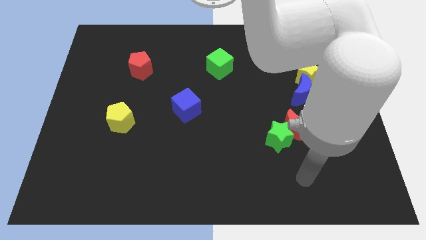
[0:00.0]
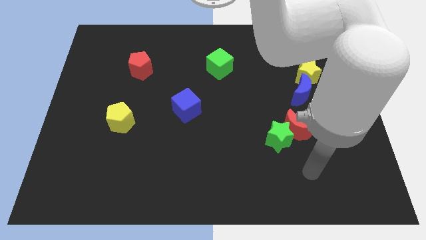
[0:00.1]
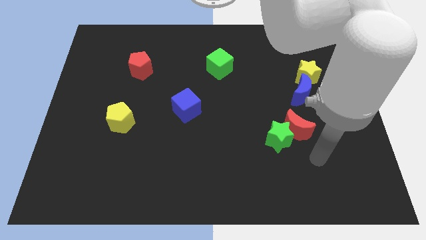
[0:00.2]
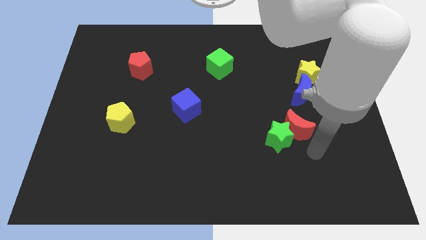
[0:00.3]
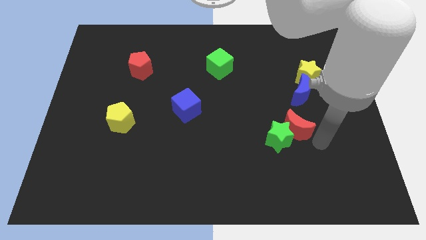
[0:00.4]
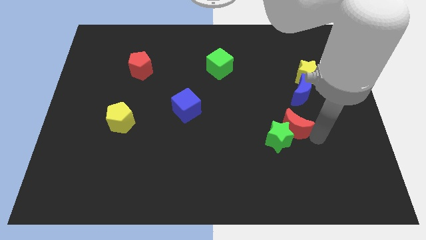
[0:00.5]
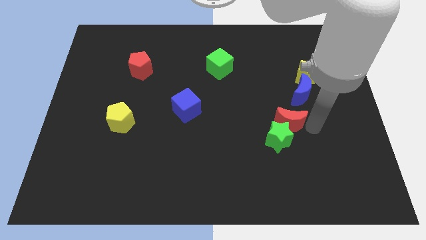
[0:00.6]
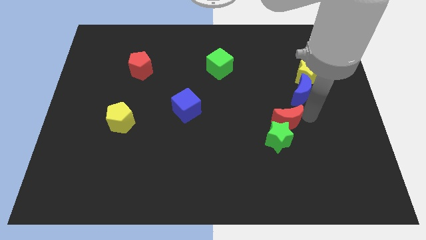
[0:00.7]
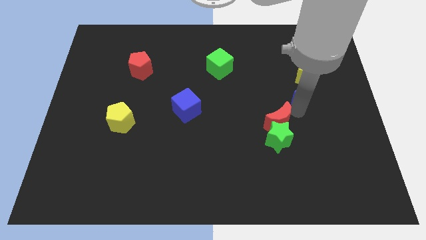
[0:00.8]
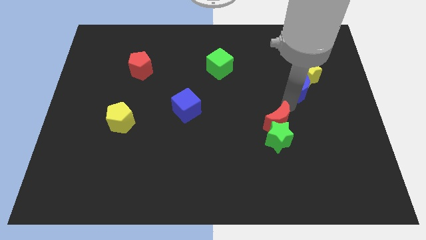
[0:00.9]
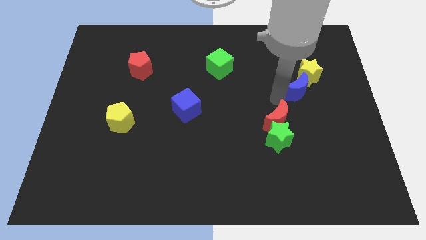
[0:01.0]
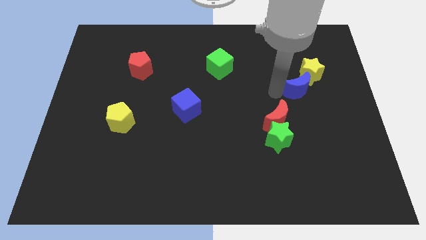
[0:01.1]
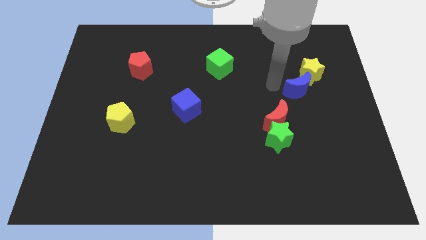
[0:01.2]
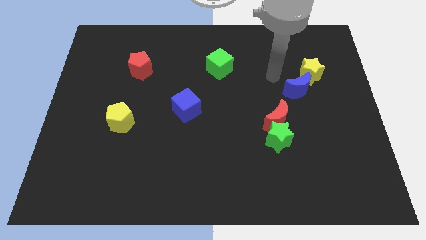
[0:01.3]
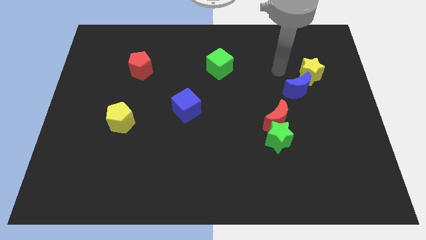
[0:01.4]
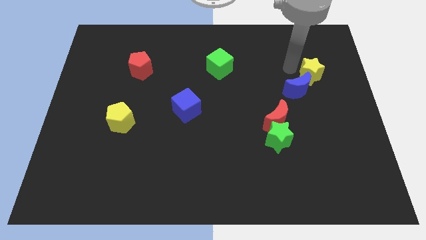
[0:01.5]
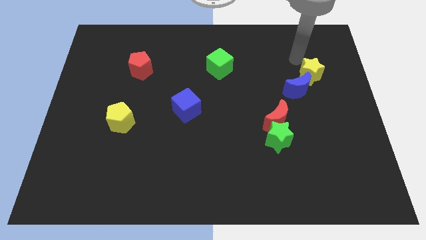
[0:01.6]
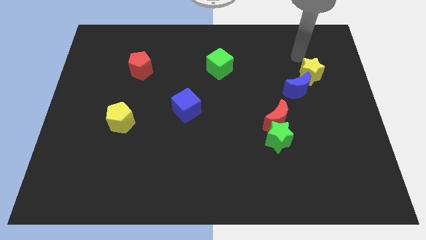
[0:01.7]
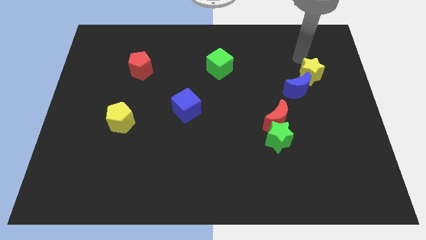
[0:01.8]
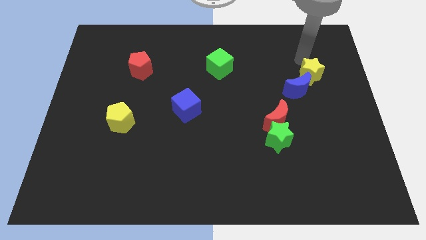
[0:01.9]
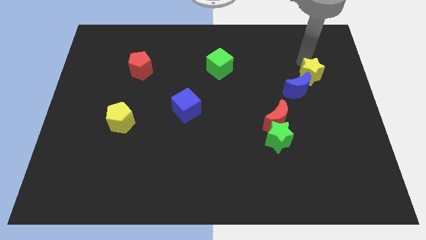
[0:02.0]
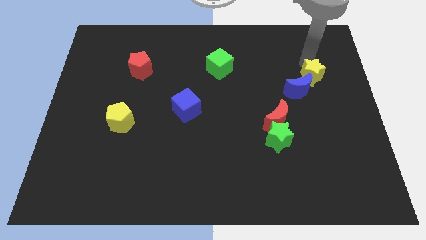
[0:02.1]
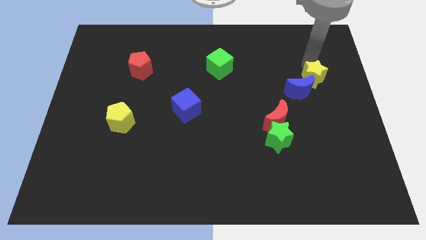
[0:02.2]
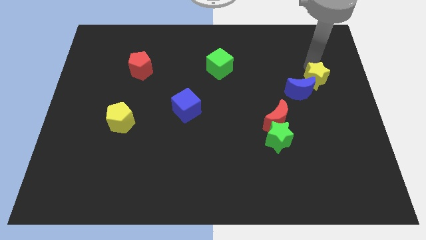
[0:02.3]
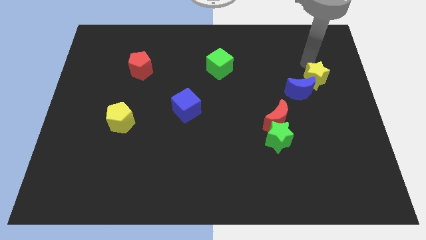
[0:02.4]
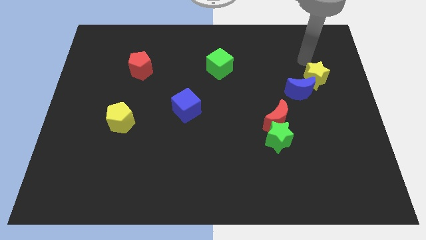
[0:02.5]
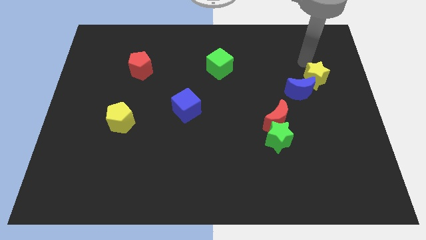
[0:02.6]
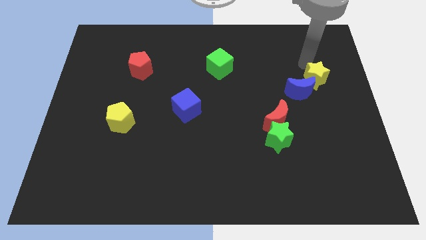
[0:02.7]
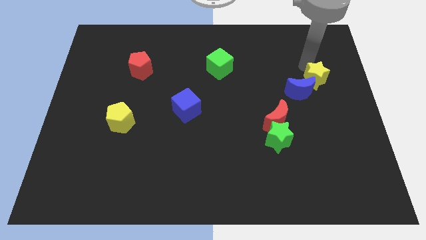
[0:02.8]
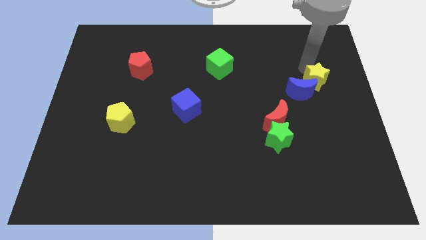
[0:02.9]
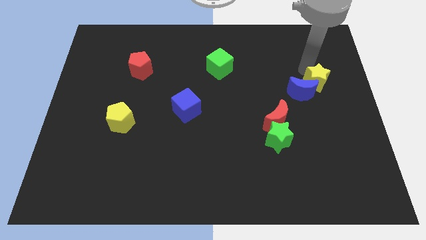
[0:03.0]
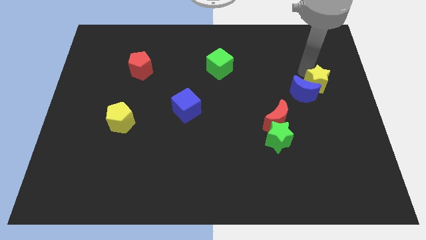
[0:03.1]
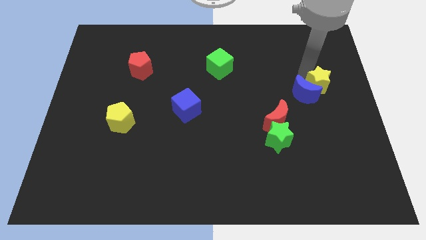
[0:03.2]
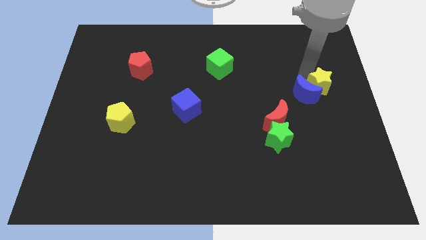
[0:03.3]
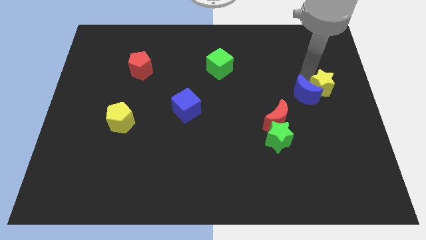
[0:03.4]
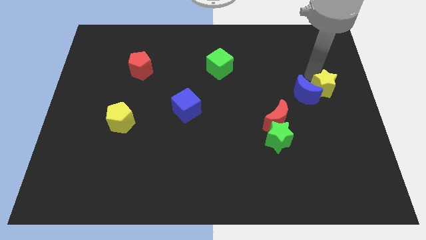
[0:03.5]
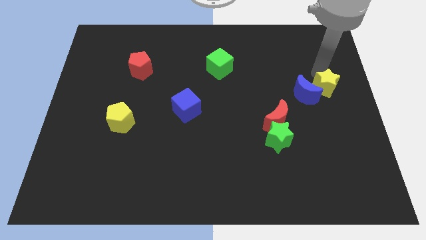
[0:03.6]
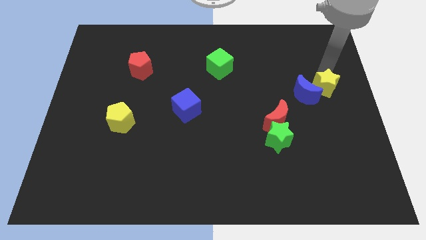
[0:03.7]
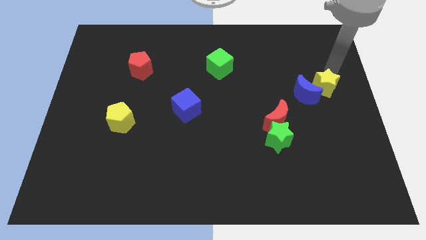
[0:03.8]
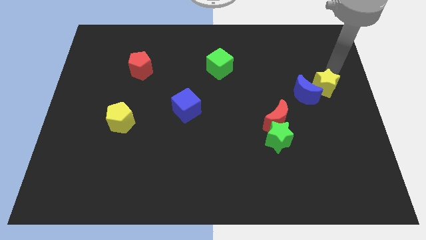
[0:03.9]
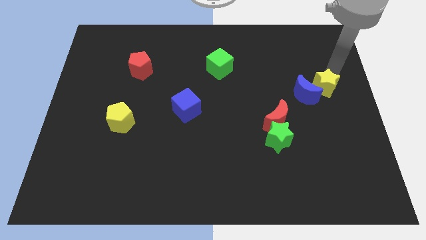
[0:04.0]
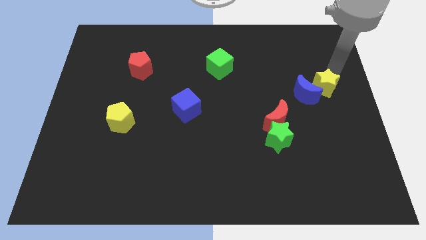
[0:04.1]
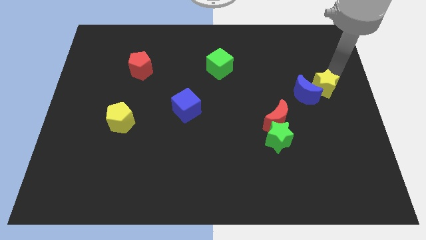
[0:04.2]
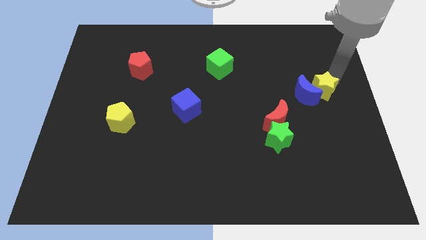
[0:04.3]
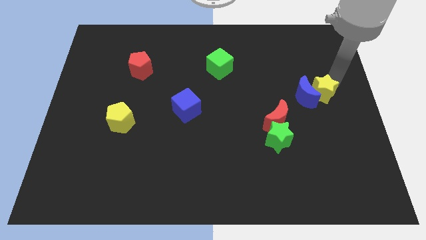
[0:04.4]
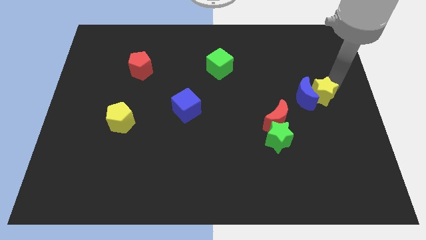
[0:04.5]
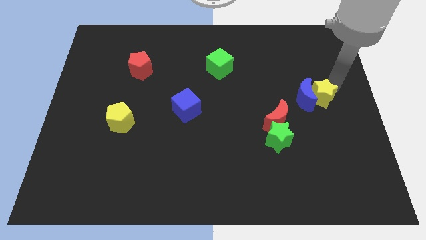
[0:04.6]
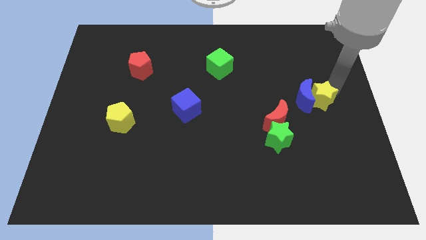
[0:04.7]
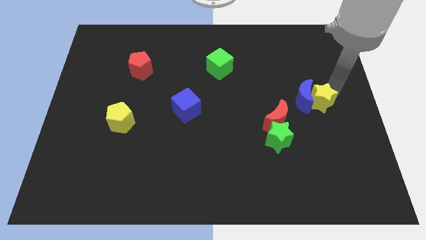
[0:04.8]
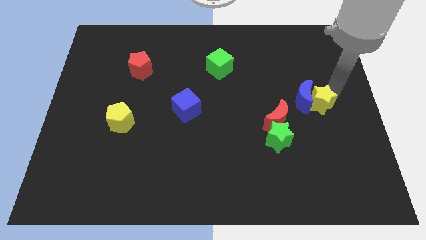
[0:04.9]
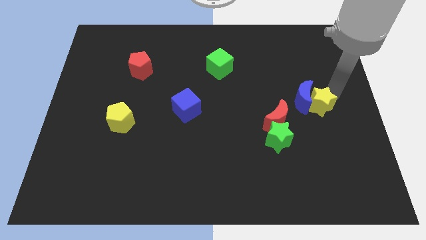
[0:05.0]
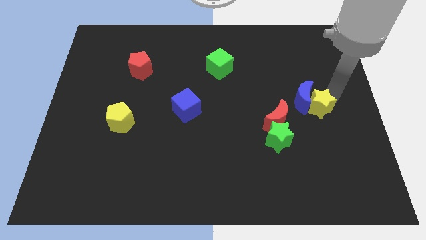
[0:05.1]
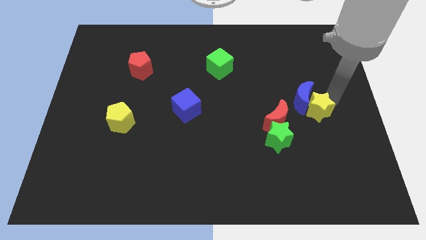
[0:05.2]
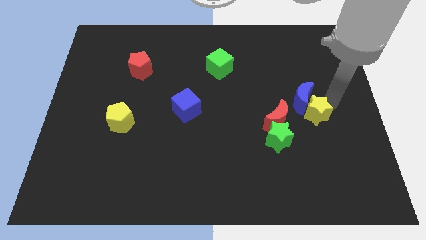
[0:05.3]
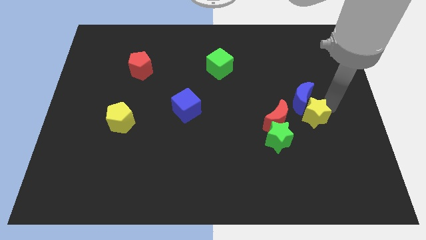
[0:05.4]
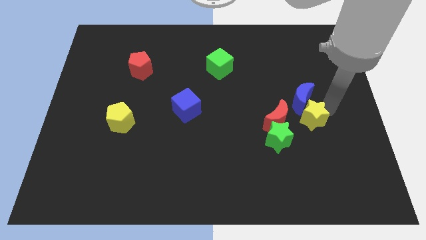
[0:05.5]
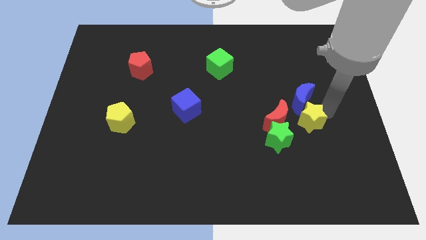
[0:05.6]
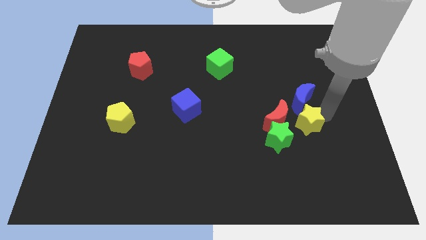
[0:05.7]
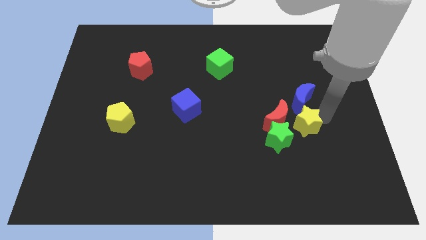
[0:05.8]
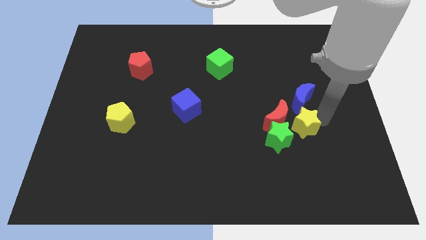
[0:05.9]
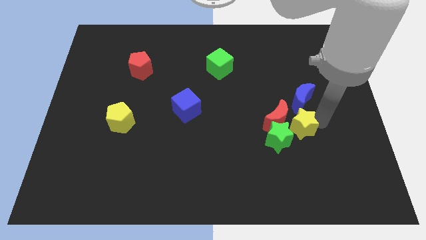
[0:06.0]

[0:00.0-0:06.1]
put the yellow star to the red moon
